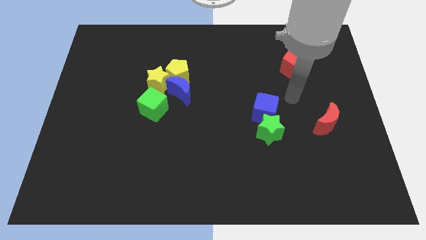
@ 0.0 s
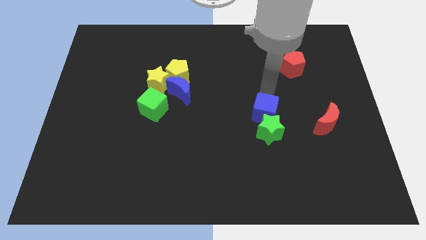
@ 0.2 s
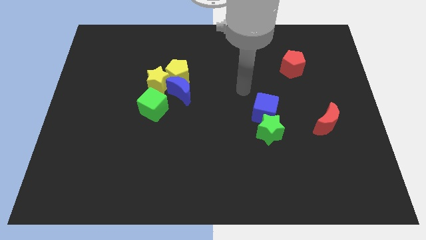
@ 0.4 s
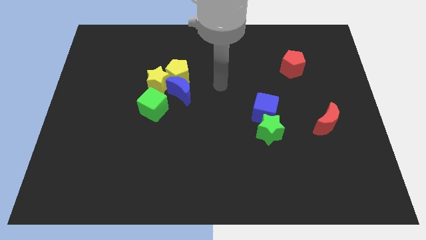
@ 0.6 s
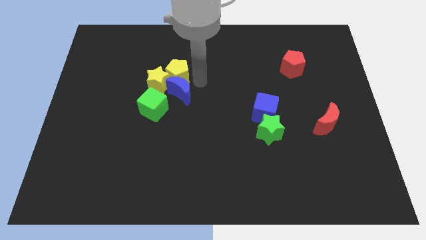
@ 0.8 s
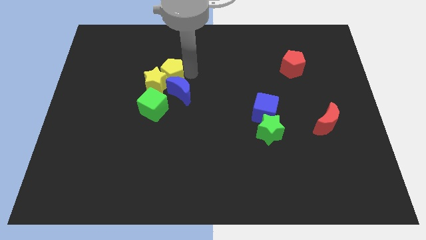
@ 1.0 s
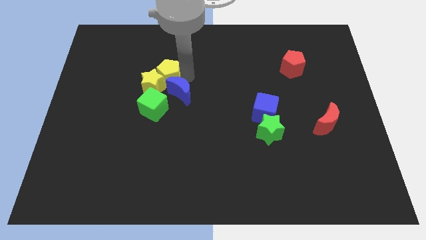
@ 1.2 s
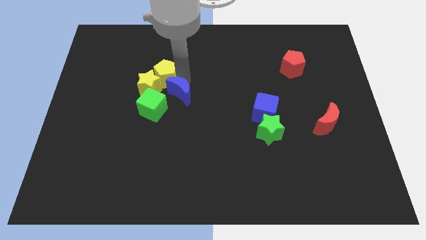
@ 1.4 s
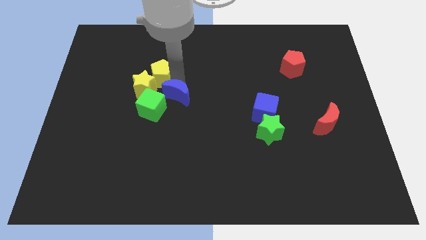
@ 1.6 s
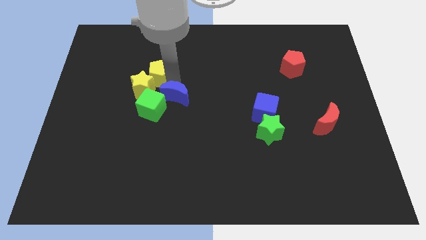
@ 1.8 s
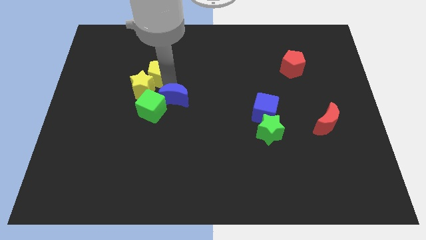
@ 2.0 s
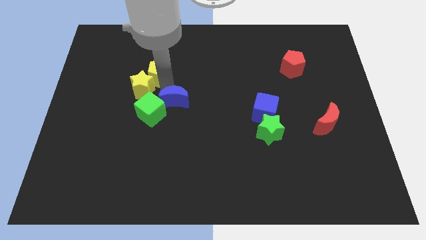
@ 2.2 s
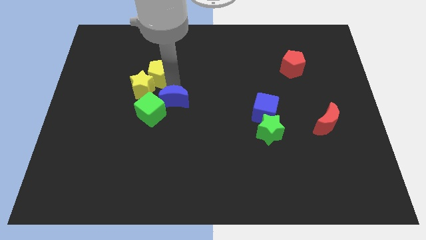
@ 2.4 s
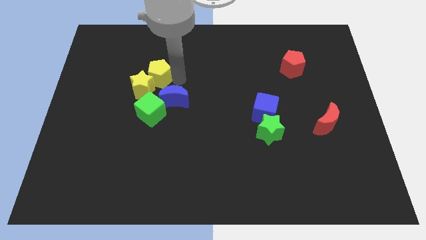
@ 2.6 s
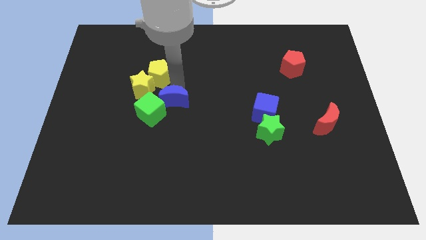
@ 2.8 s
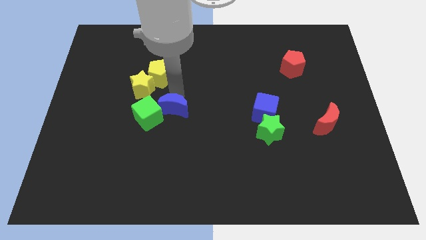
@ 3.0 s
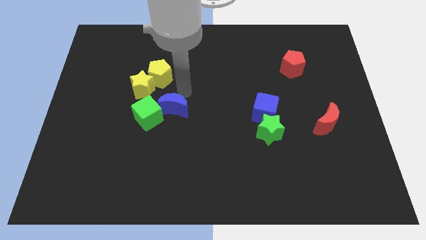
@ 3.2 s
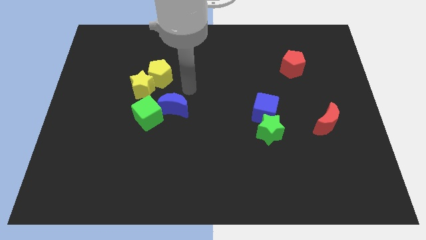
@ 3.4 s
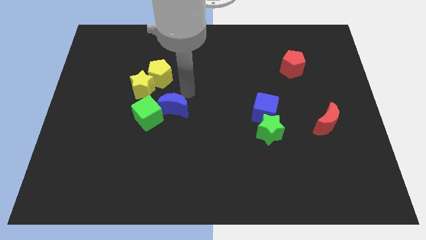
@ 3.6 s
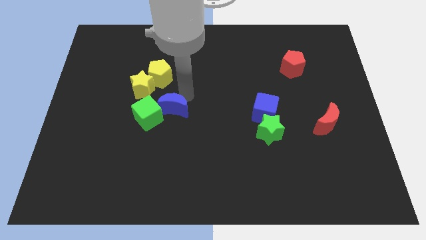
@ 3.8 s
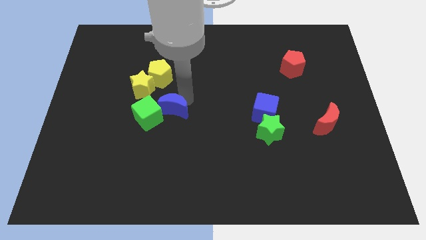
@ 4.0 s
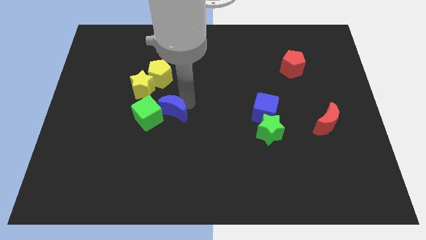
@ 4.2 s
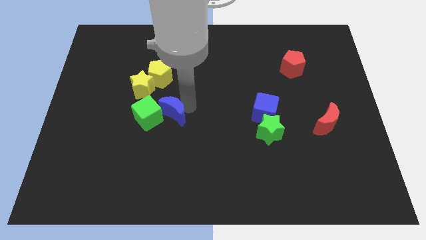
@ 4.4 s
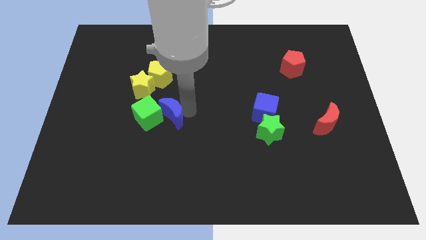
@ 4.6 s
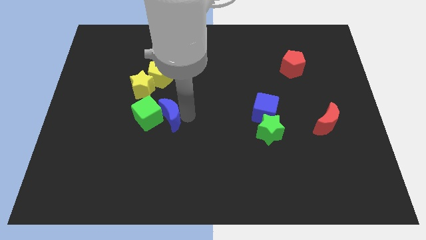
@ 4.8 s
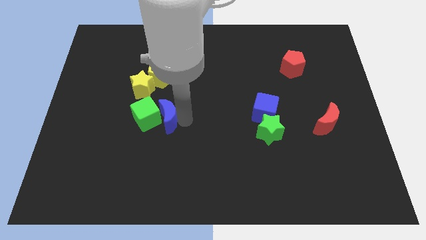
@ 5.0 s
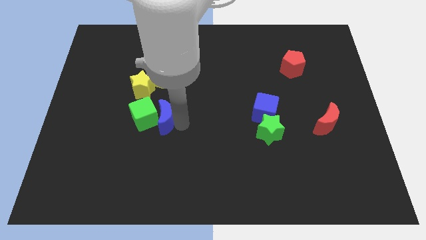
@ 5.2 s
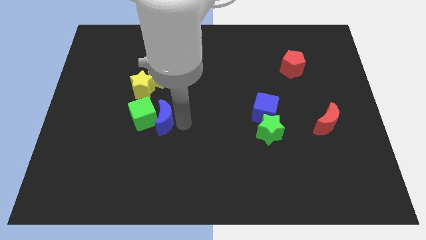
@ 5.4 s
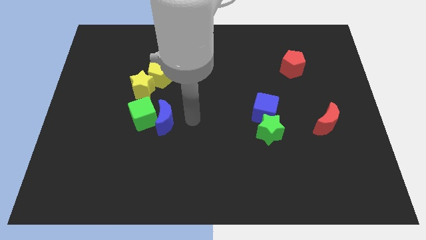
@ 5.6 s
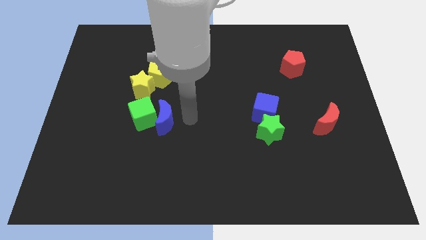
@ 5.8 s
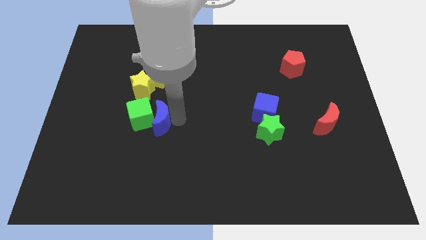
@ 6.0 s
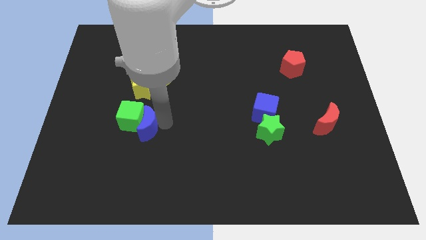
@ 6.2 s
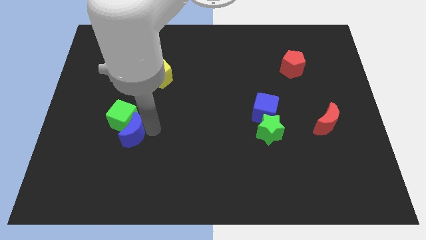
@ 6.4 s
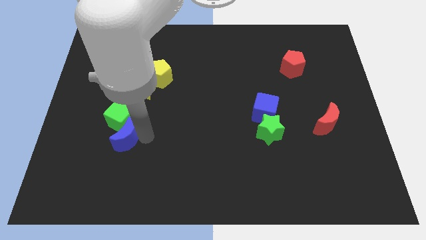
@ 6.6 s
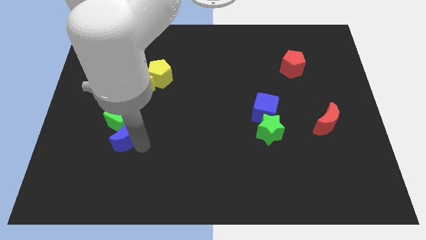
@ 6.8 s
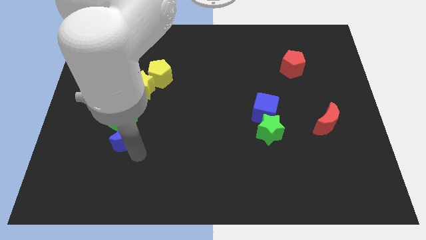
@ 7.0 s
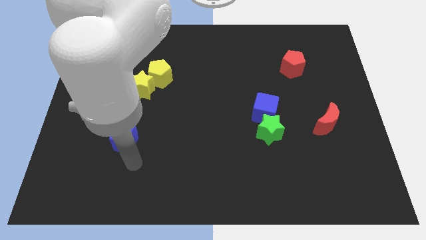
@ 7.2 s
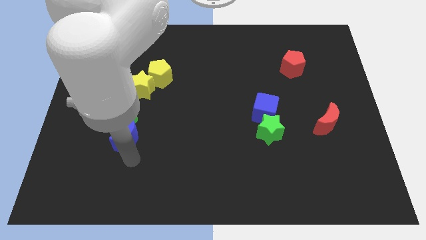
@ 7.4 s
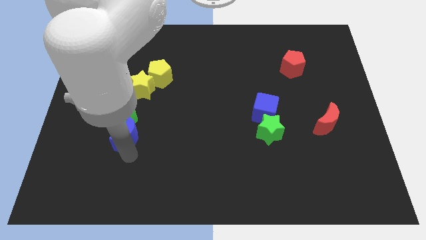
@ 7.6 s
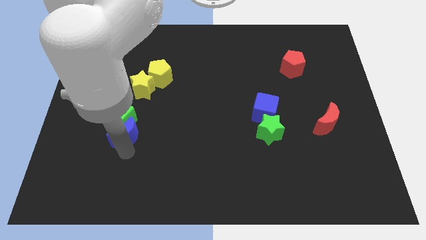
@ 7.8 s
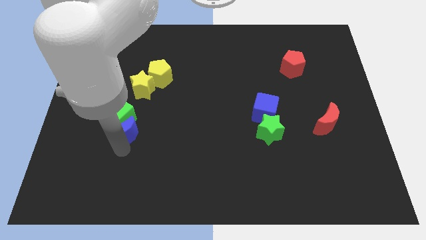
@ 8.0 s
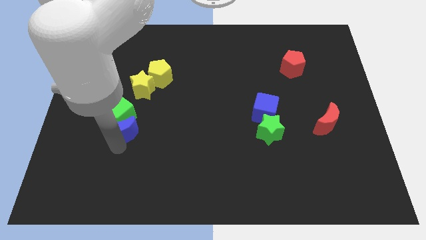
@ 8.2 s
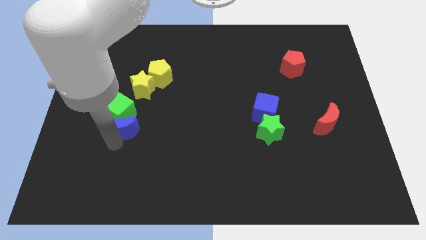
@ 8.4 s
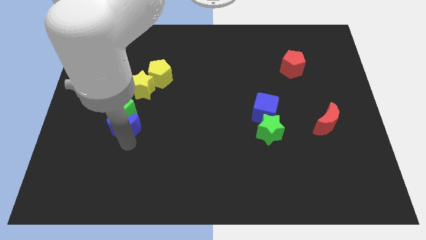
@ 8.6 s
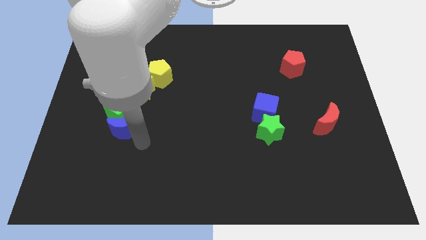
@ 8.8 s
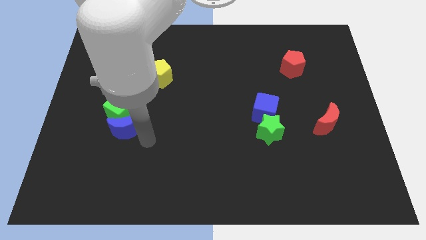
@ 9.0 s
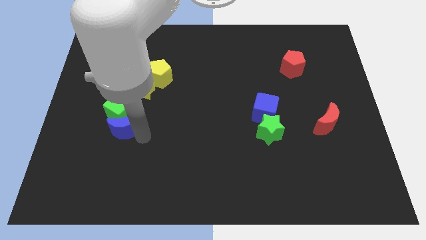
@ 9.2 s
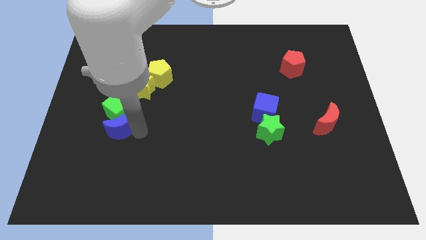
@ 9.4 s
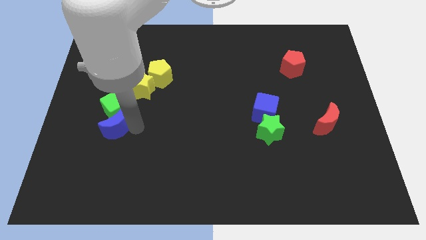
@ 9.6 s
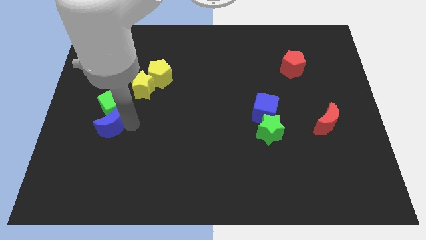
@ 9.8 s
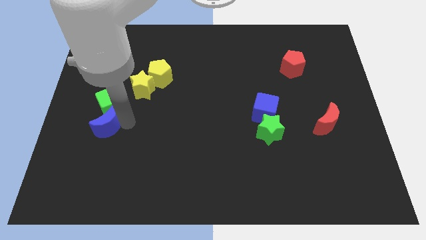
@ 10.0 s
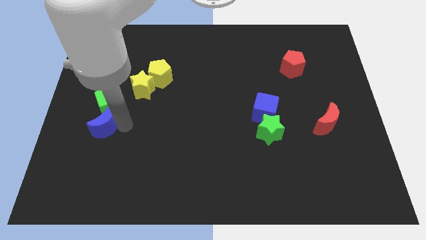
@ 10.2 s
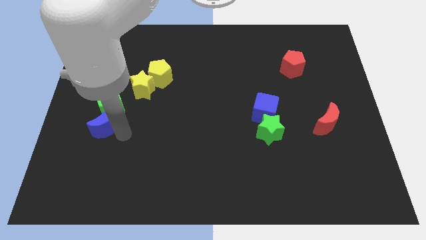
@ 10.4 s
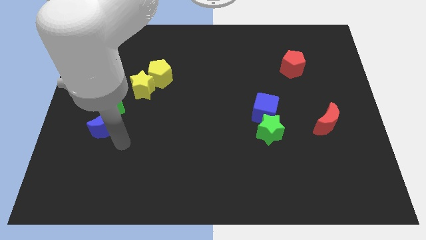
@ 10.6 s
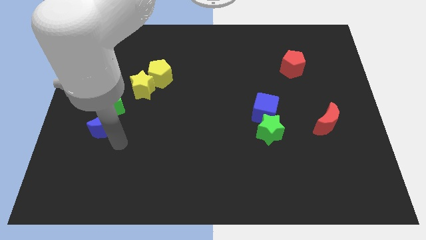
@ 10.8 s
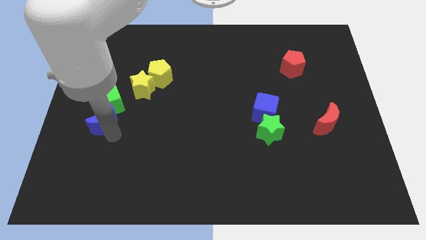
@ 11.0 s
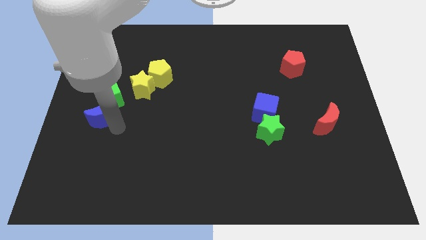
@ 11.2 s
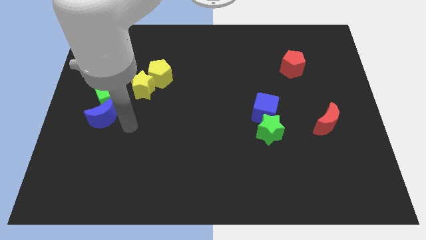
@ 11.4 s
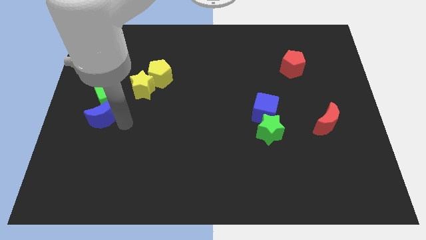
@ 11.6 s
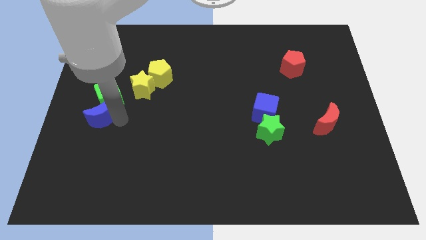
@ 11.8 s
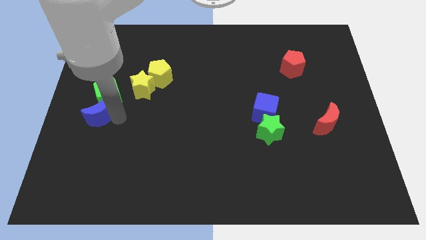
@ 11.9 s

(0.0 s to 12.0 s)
slide the blue moon to the center left

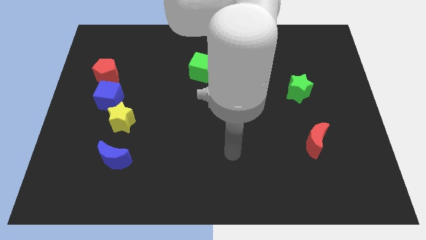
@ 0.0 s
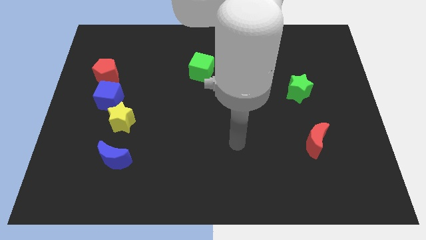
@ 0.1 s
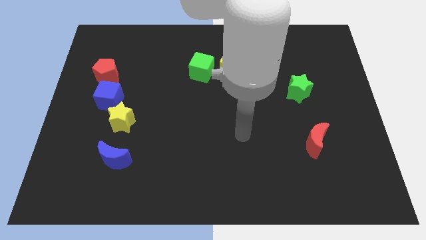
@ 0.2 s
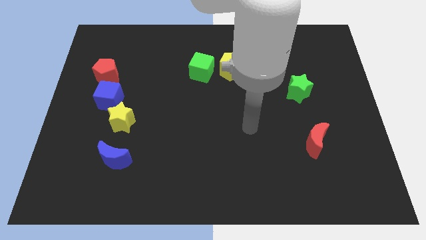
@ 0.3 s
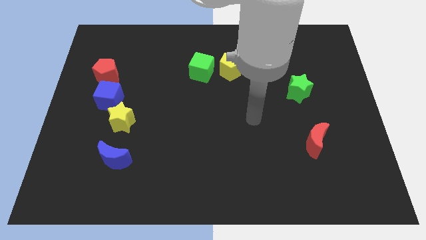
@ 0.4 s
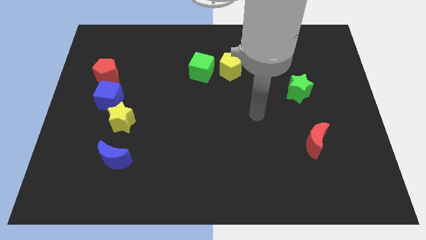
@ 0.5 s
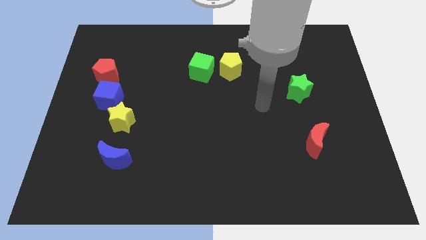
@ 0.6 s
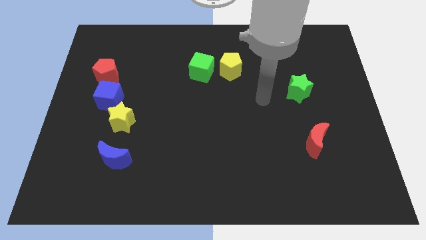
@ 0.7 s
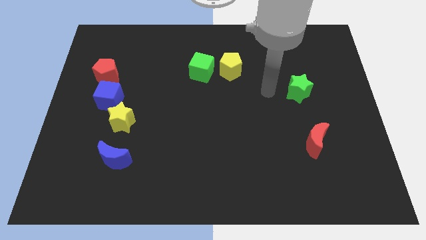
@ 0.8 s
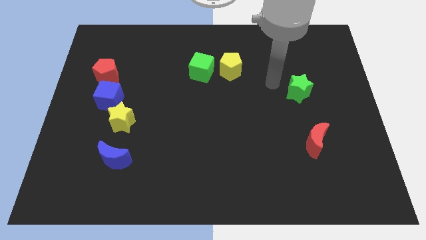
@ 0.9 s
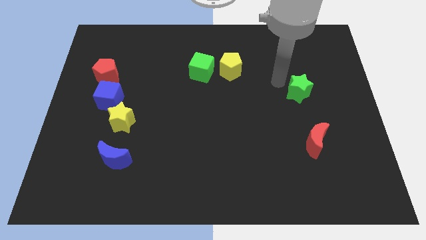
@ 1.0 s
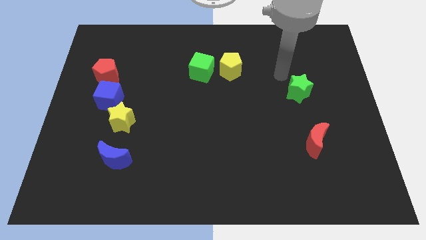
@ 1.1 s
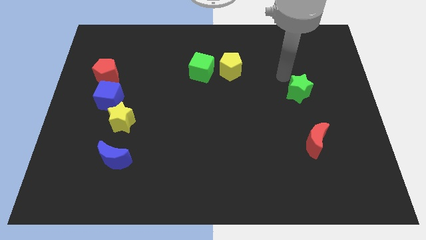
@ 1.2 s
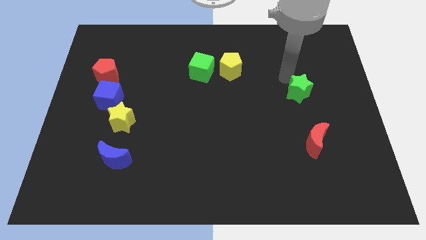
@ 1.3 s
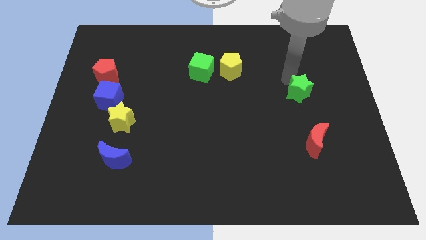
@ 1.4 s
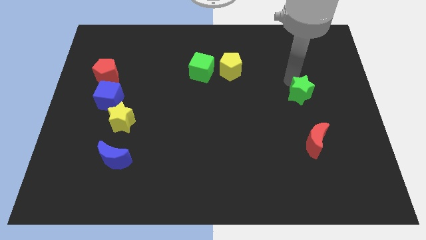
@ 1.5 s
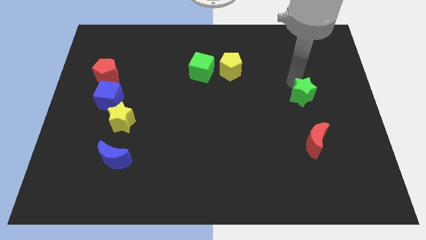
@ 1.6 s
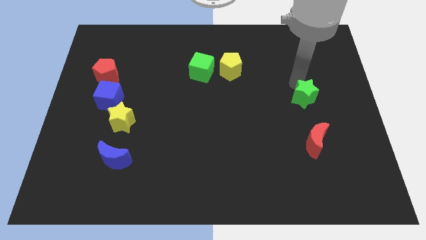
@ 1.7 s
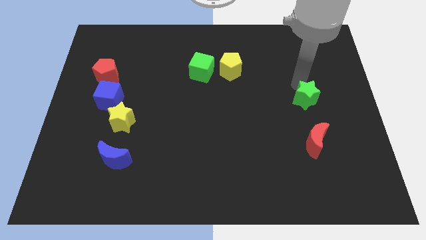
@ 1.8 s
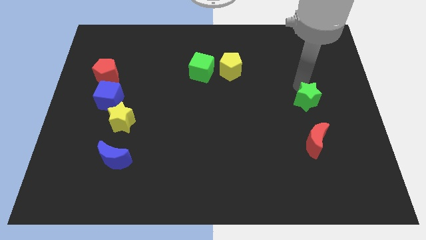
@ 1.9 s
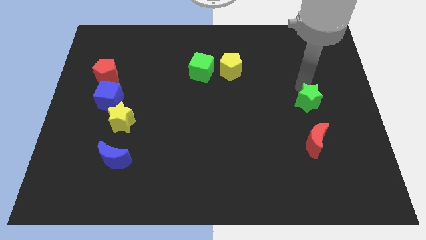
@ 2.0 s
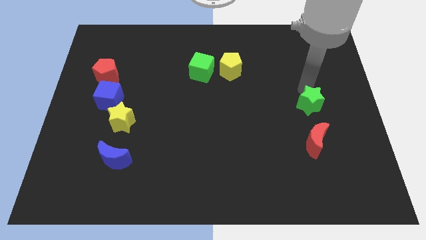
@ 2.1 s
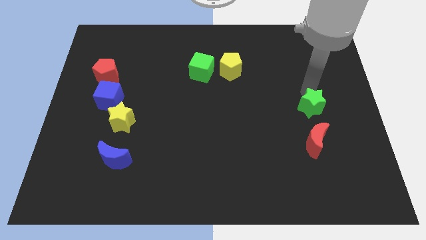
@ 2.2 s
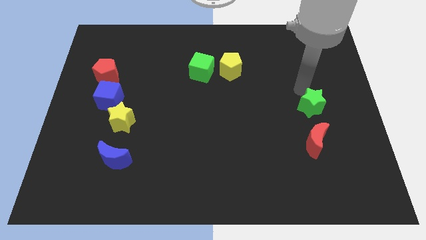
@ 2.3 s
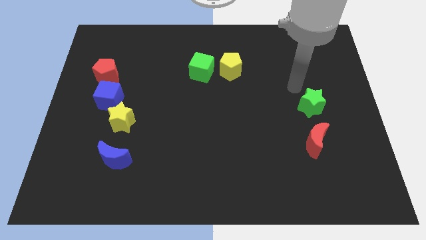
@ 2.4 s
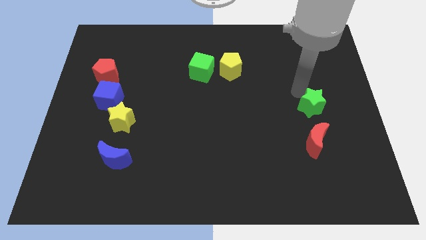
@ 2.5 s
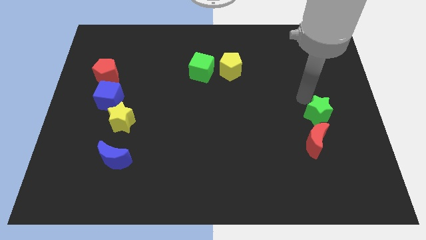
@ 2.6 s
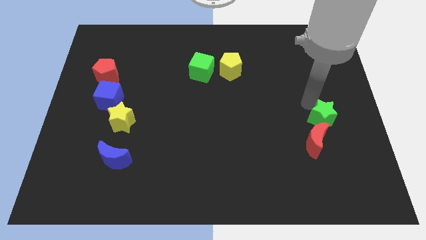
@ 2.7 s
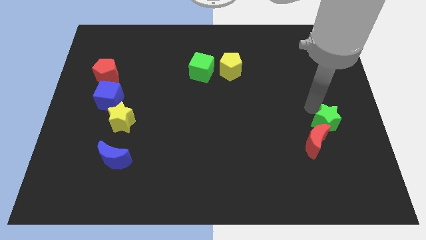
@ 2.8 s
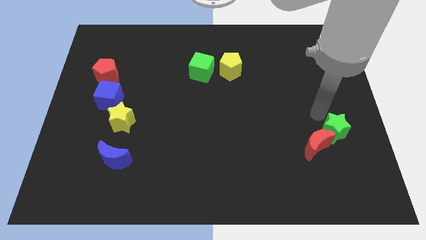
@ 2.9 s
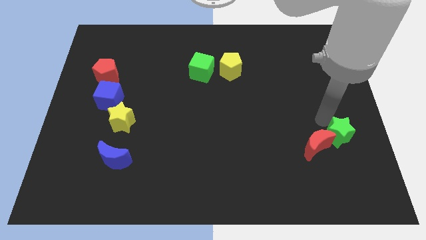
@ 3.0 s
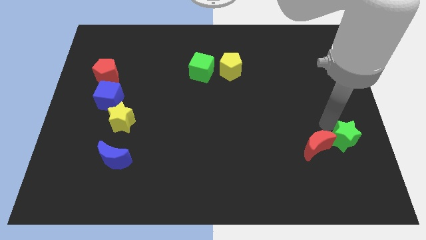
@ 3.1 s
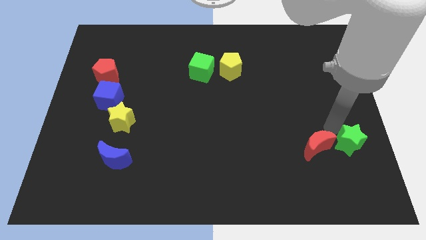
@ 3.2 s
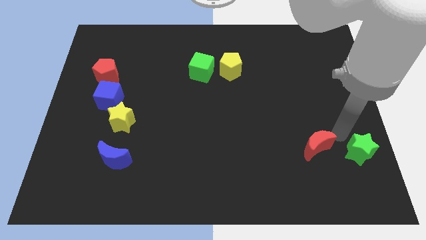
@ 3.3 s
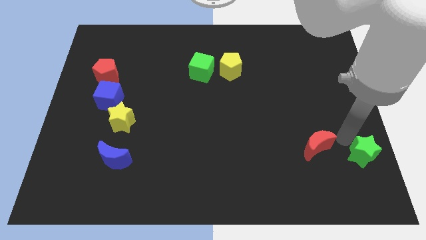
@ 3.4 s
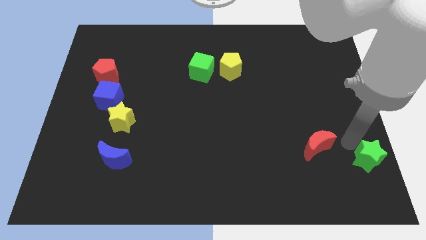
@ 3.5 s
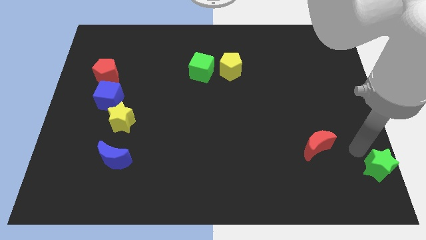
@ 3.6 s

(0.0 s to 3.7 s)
slide the green star to the bottom right of the board
